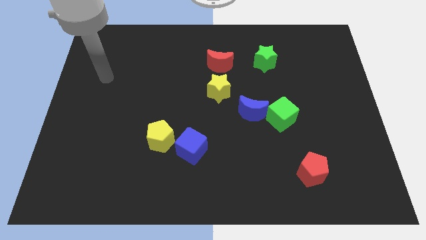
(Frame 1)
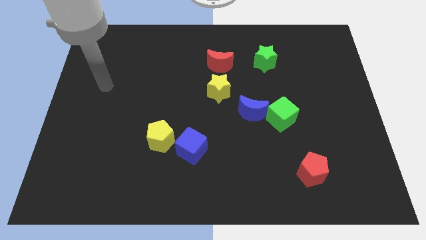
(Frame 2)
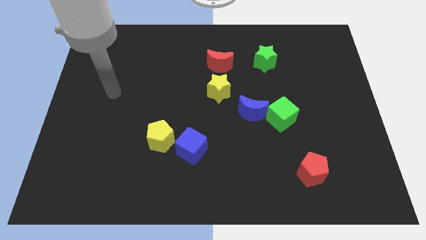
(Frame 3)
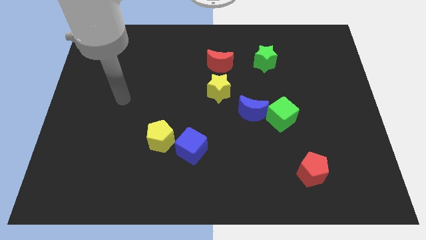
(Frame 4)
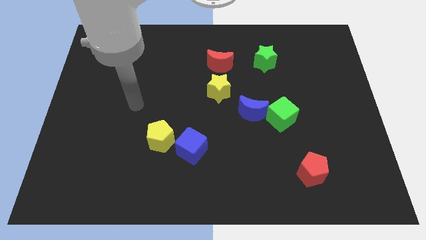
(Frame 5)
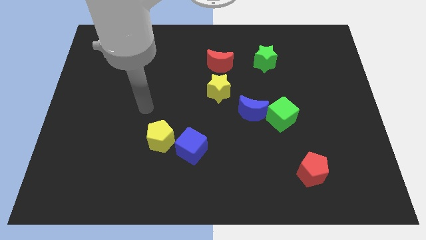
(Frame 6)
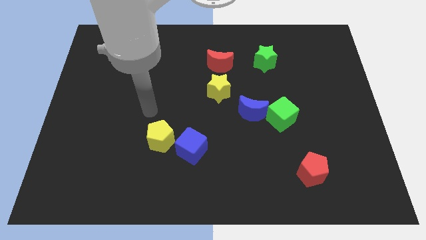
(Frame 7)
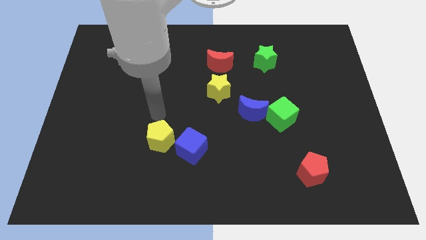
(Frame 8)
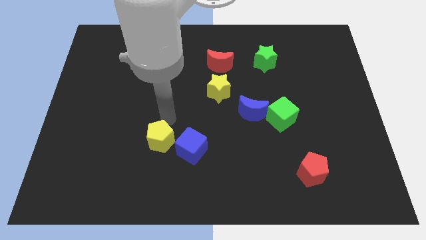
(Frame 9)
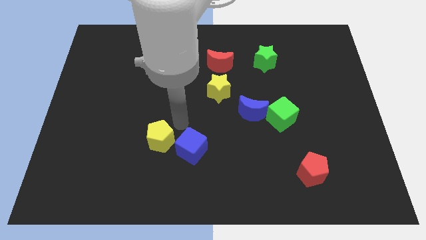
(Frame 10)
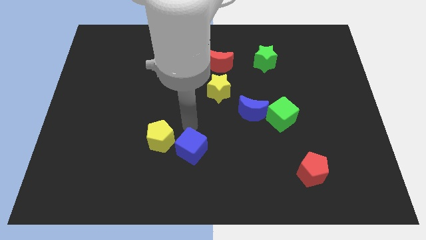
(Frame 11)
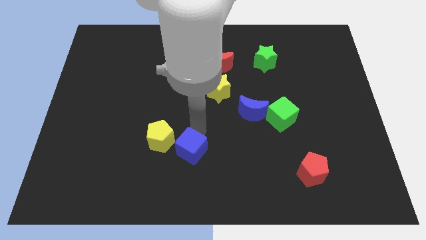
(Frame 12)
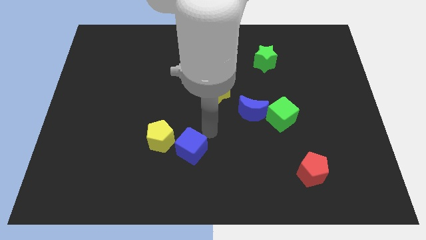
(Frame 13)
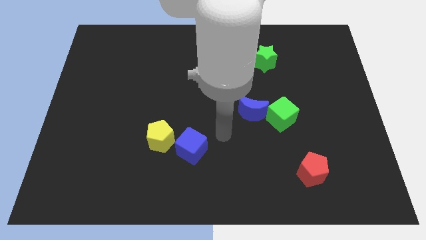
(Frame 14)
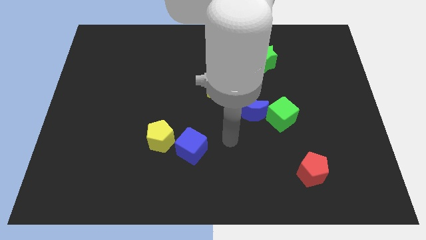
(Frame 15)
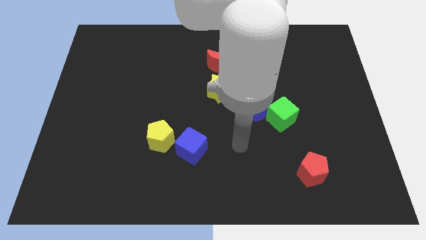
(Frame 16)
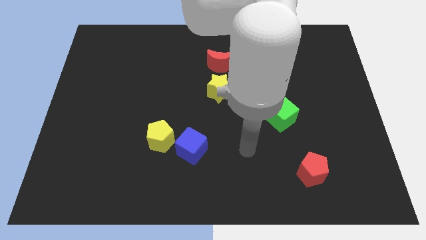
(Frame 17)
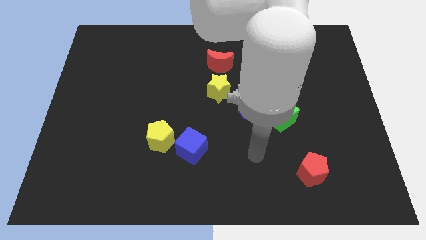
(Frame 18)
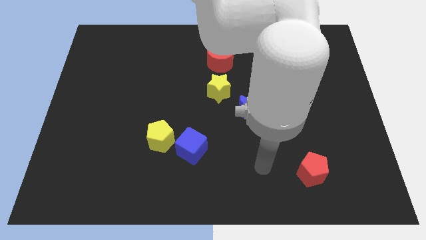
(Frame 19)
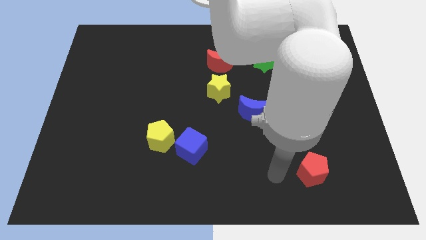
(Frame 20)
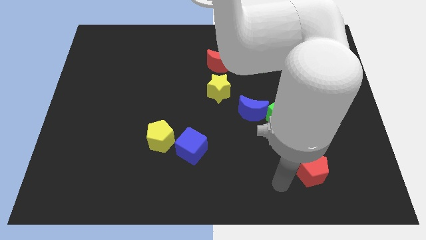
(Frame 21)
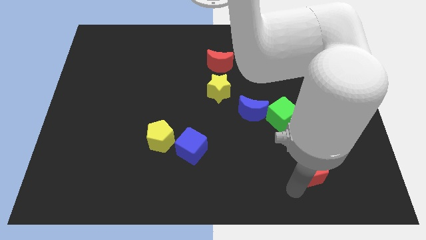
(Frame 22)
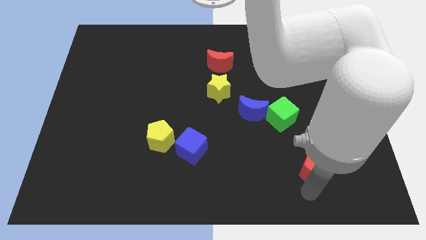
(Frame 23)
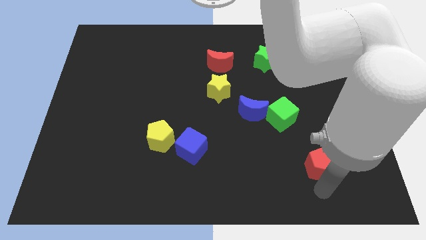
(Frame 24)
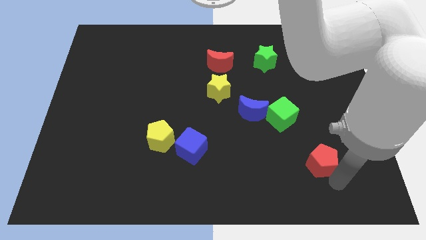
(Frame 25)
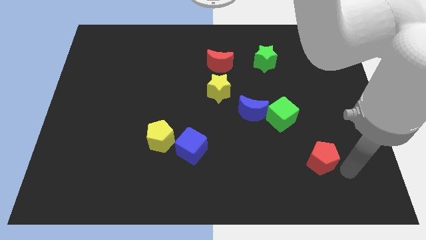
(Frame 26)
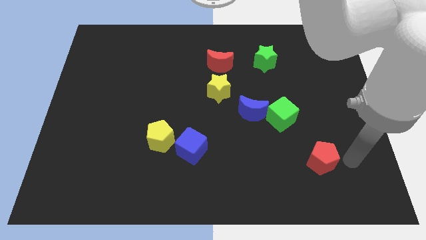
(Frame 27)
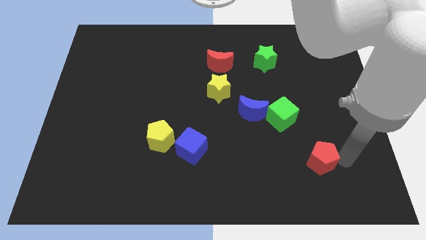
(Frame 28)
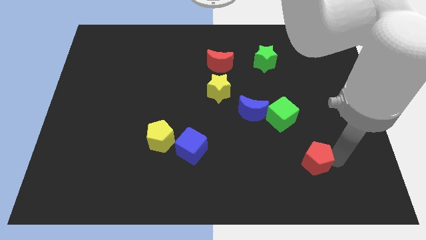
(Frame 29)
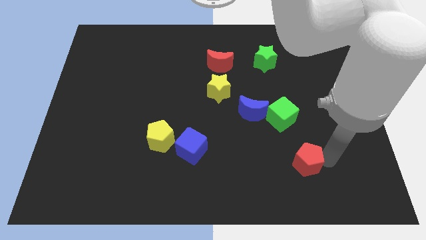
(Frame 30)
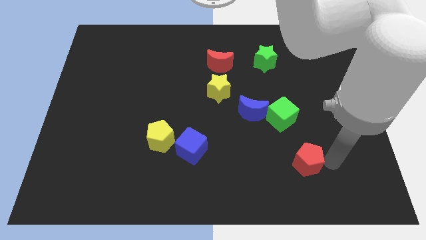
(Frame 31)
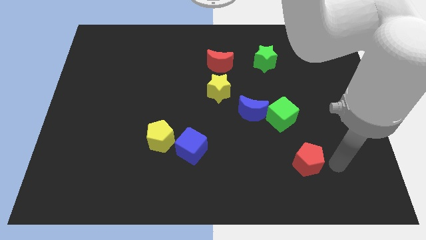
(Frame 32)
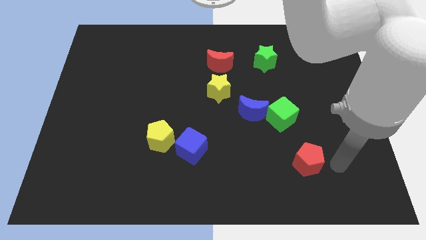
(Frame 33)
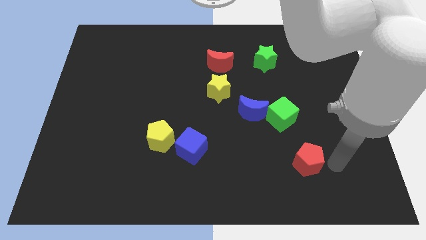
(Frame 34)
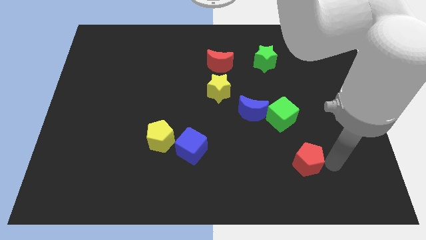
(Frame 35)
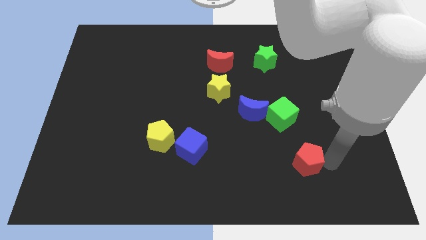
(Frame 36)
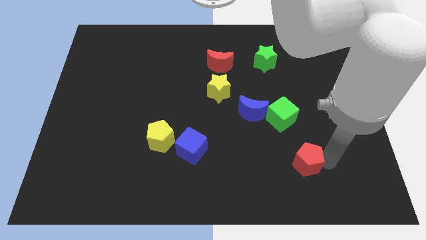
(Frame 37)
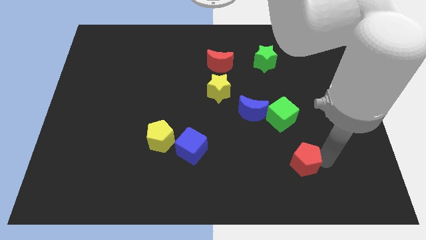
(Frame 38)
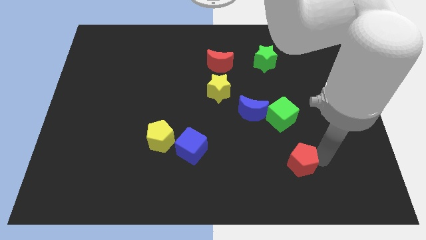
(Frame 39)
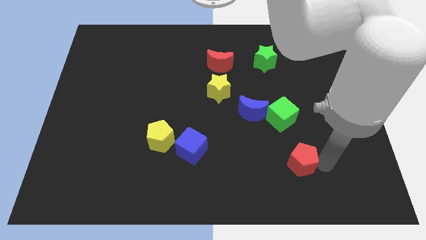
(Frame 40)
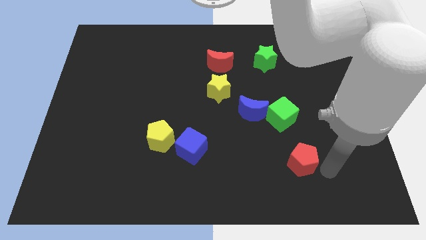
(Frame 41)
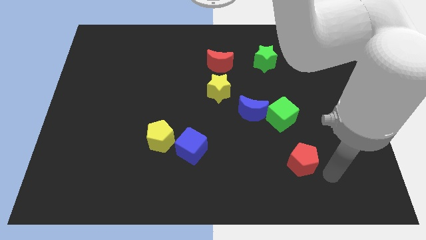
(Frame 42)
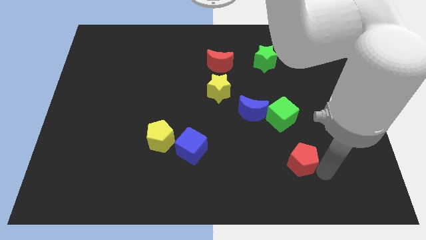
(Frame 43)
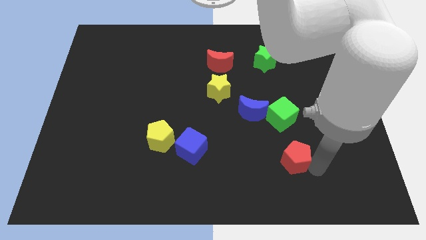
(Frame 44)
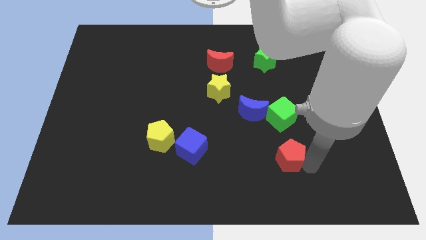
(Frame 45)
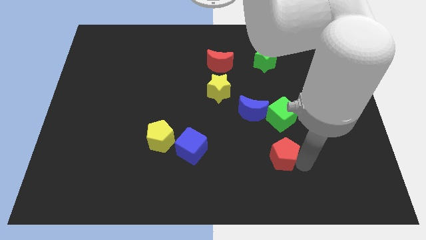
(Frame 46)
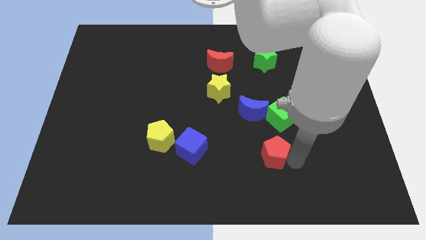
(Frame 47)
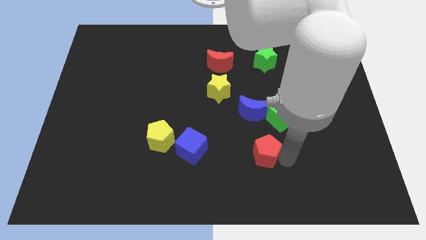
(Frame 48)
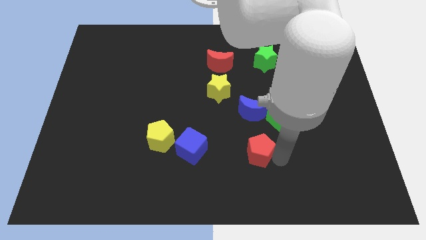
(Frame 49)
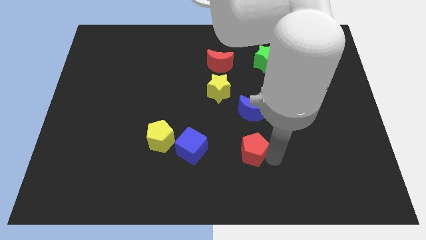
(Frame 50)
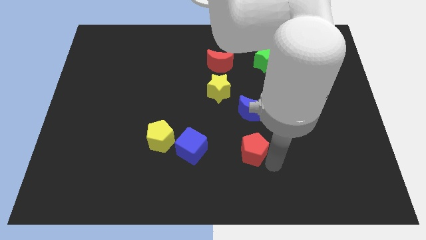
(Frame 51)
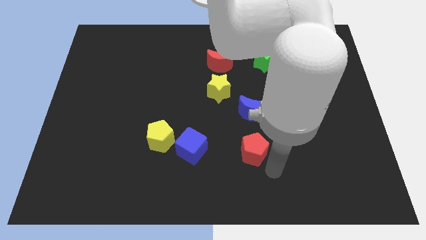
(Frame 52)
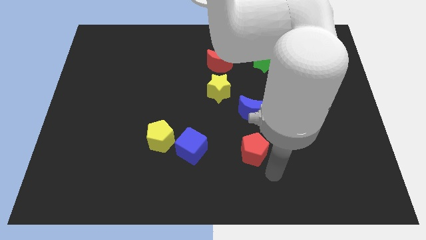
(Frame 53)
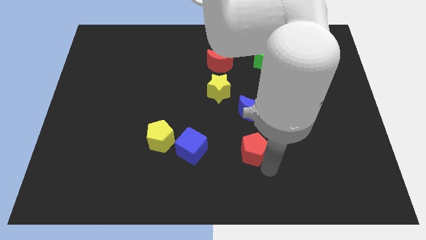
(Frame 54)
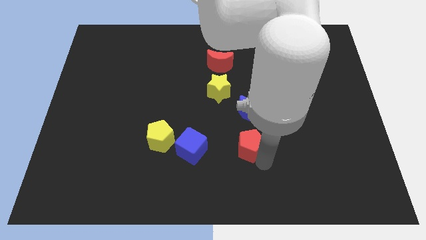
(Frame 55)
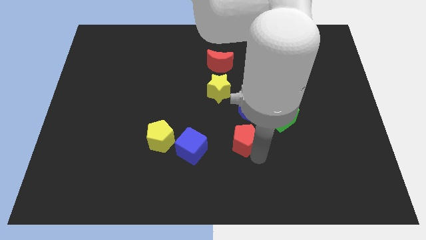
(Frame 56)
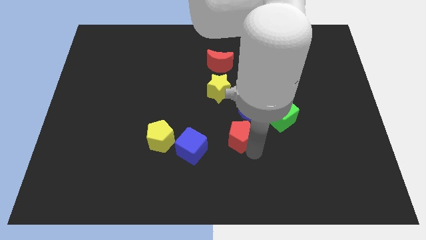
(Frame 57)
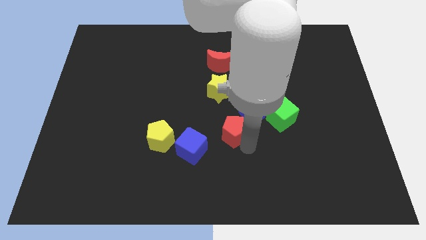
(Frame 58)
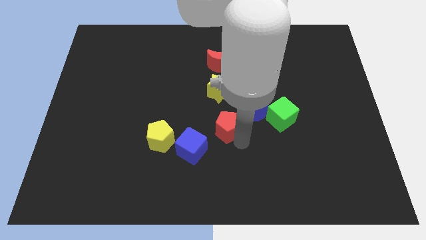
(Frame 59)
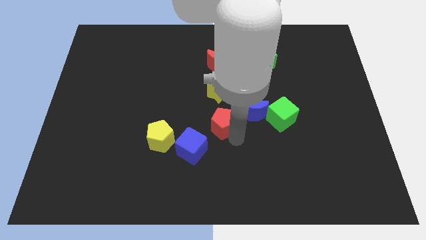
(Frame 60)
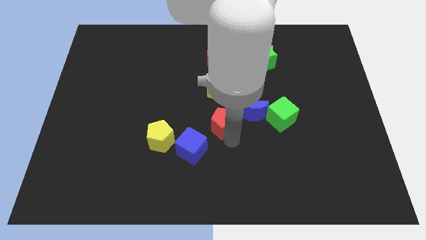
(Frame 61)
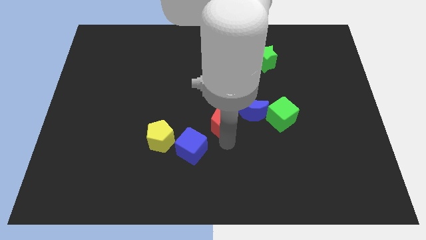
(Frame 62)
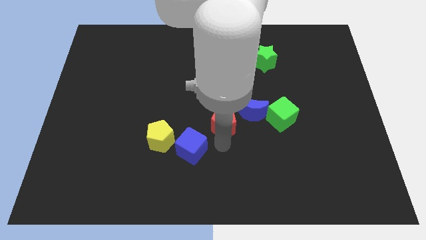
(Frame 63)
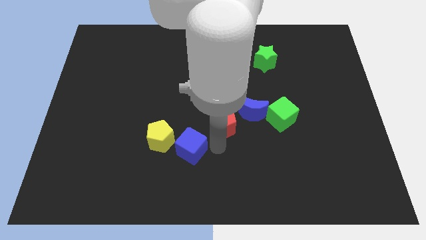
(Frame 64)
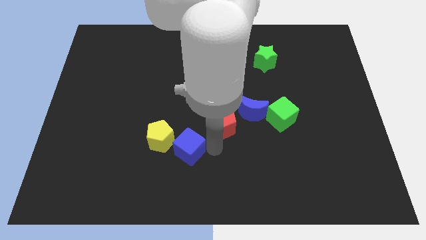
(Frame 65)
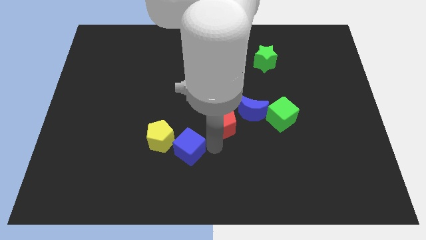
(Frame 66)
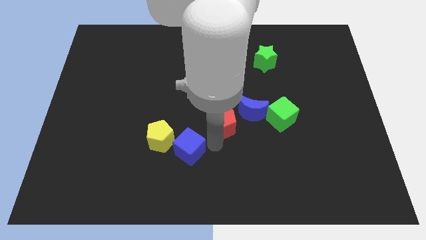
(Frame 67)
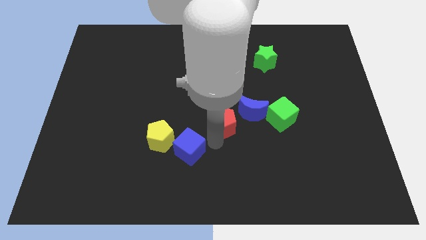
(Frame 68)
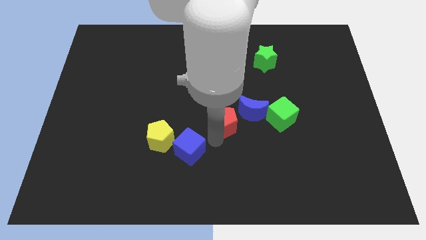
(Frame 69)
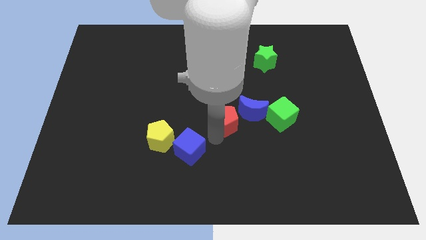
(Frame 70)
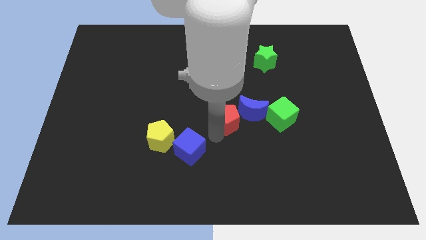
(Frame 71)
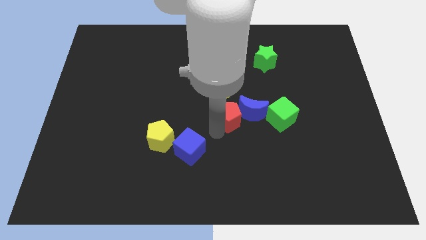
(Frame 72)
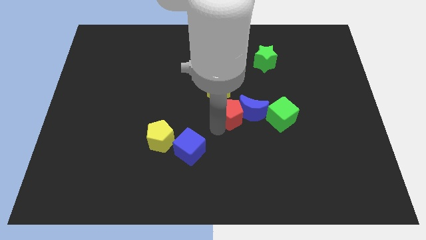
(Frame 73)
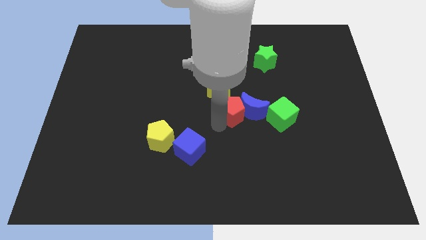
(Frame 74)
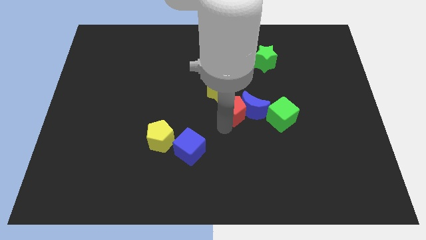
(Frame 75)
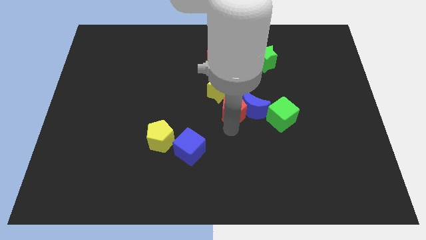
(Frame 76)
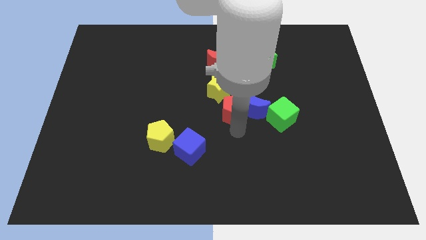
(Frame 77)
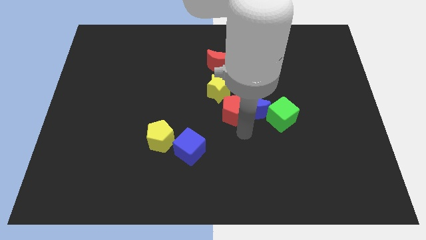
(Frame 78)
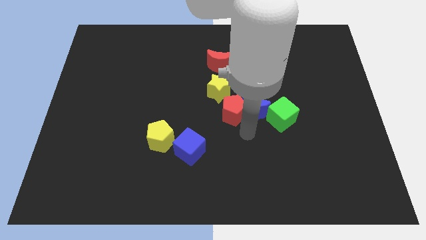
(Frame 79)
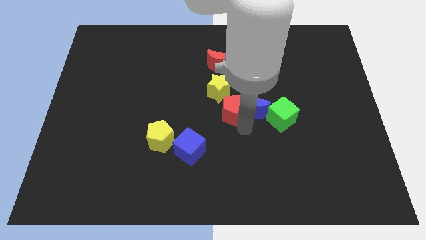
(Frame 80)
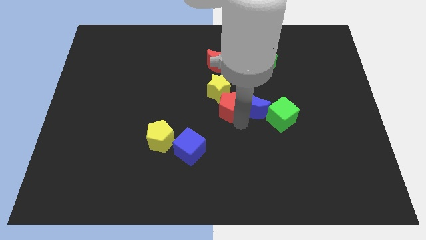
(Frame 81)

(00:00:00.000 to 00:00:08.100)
put the red pentagon close to the yellow star

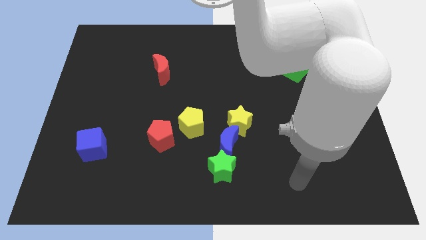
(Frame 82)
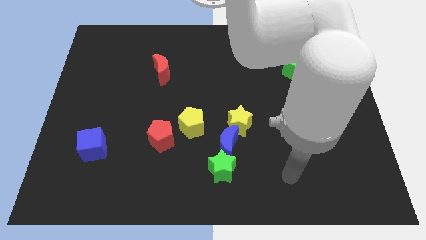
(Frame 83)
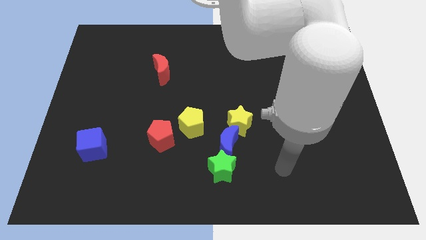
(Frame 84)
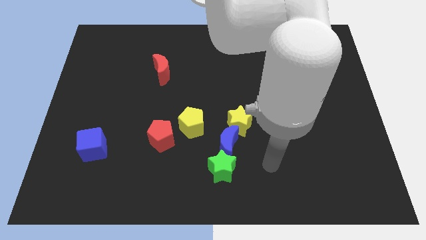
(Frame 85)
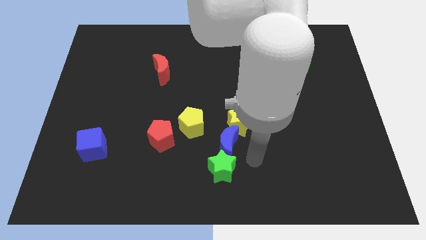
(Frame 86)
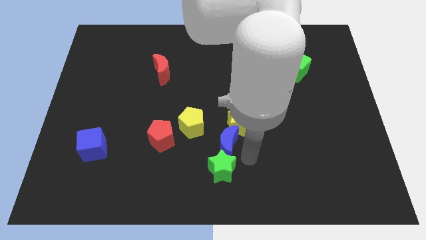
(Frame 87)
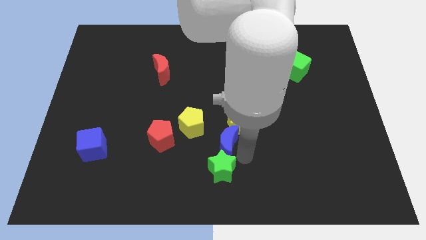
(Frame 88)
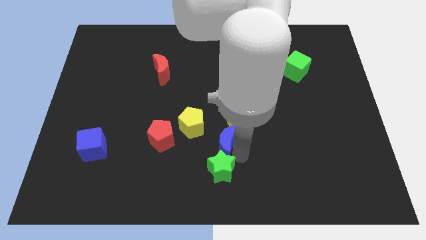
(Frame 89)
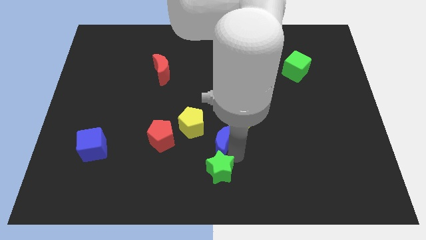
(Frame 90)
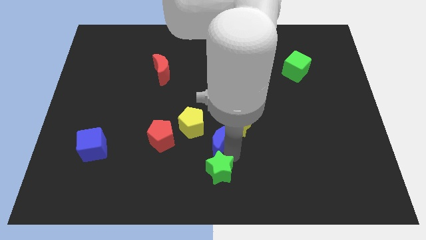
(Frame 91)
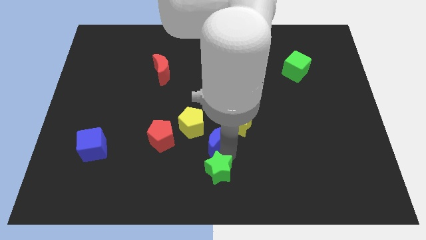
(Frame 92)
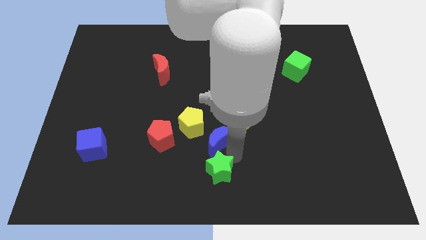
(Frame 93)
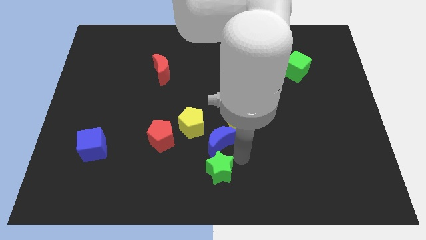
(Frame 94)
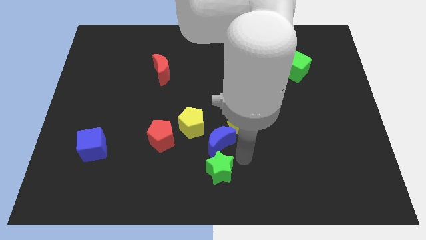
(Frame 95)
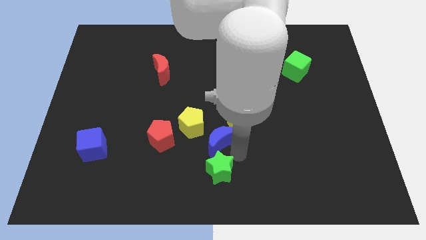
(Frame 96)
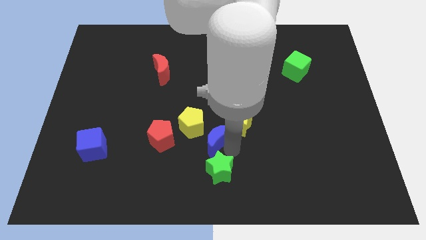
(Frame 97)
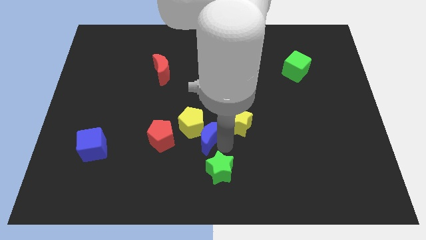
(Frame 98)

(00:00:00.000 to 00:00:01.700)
slide the blue moon towards the yellow pentagon
